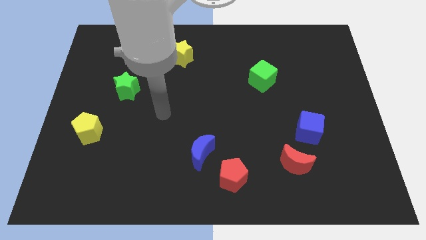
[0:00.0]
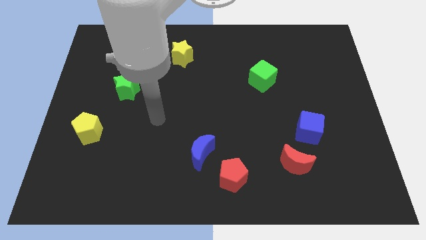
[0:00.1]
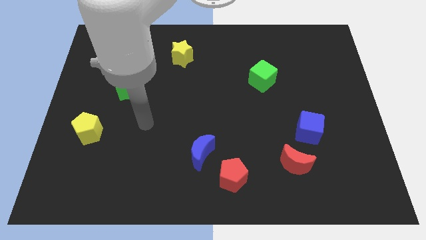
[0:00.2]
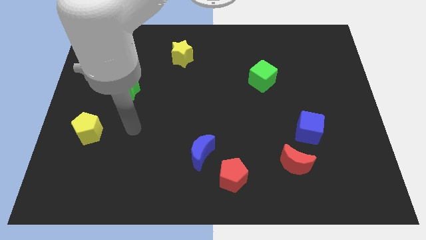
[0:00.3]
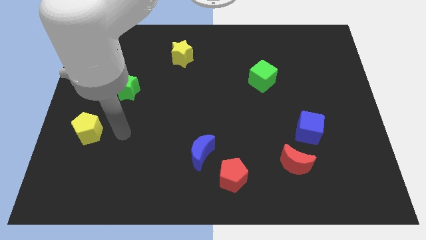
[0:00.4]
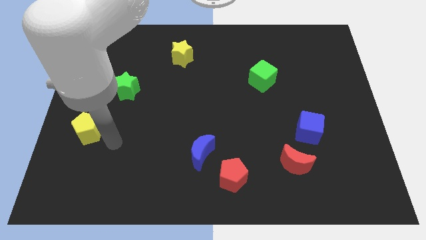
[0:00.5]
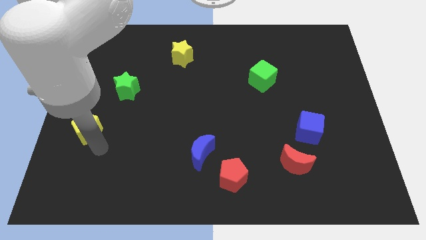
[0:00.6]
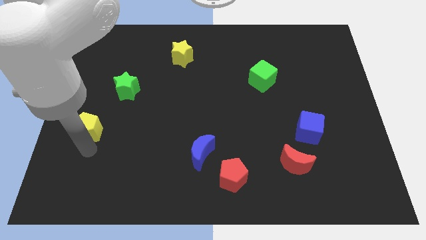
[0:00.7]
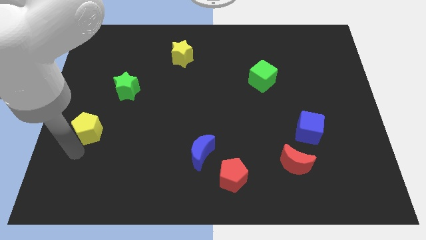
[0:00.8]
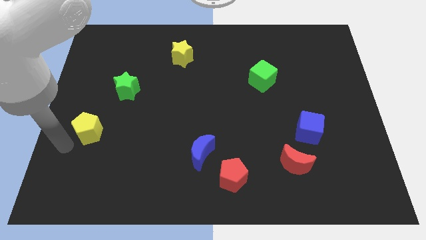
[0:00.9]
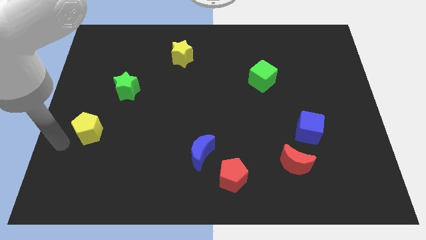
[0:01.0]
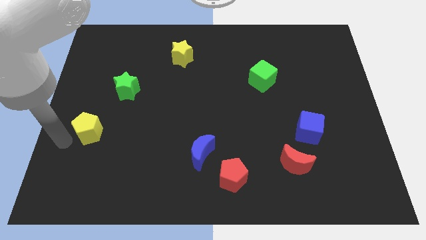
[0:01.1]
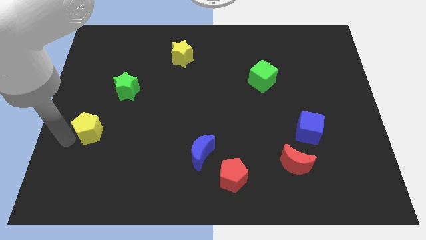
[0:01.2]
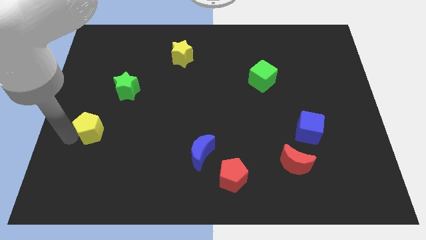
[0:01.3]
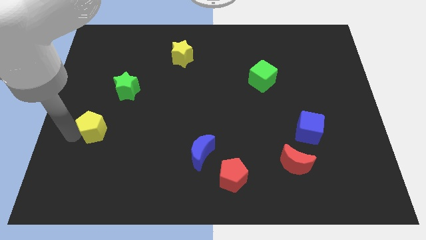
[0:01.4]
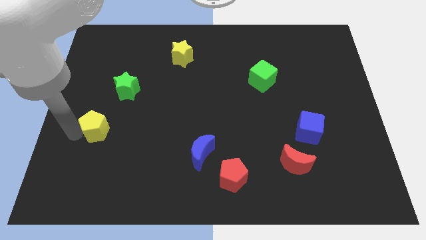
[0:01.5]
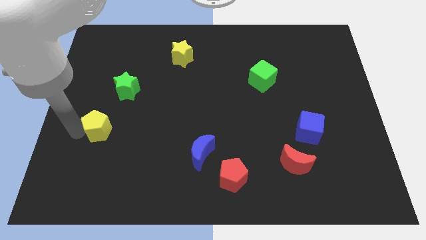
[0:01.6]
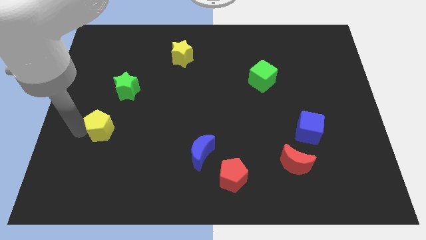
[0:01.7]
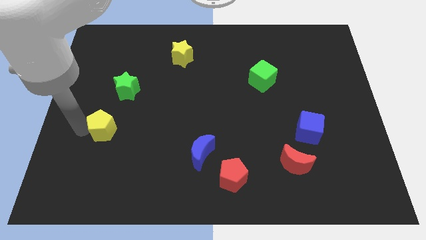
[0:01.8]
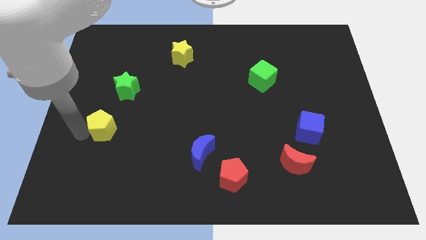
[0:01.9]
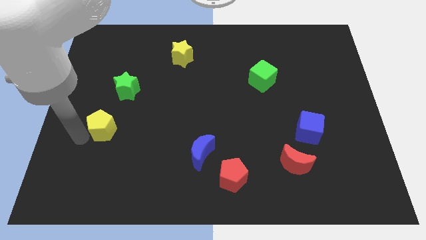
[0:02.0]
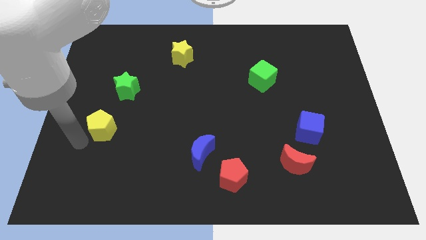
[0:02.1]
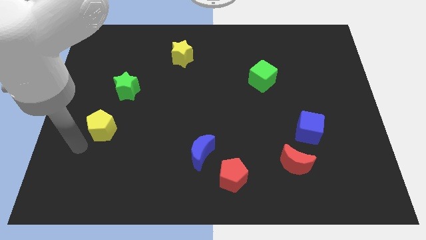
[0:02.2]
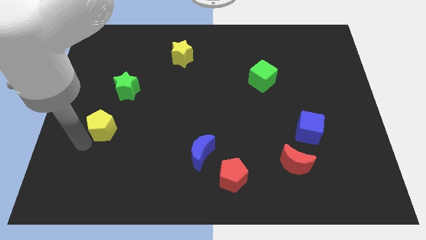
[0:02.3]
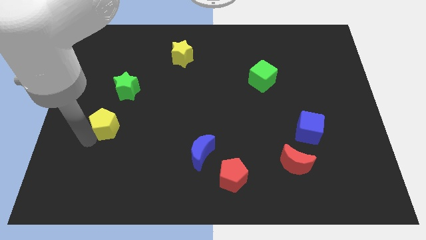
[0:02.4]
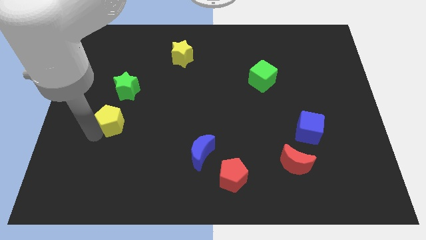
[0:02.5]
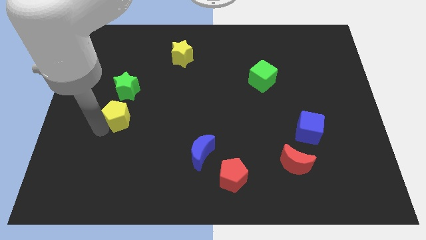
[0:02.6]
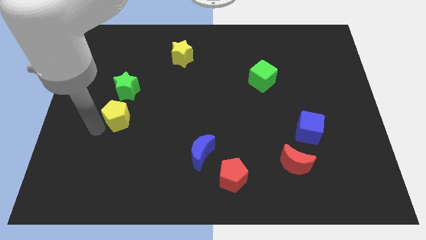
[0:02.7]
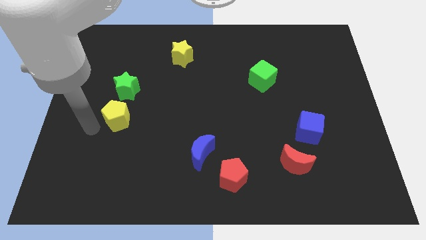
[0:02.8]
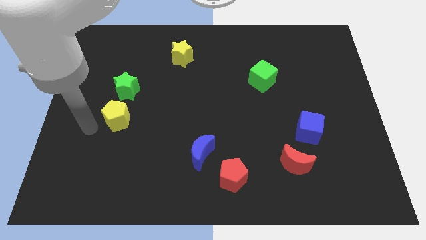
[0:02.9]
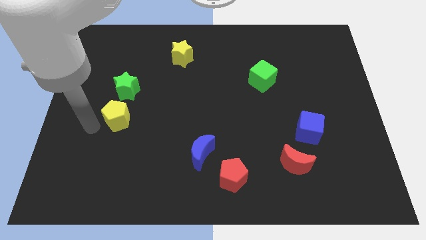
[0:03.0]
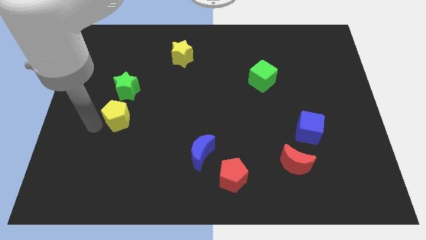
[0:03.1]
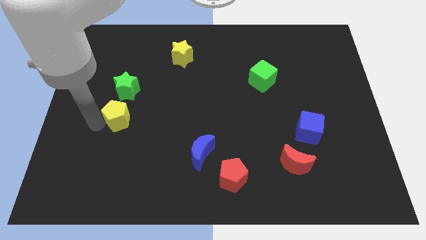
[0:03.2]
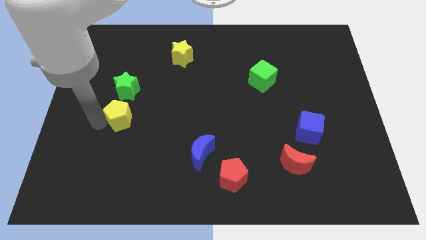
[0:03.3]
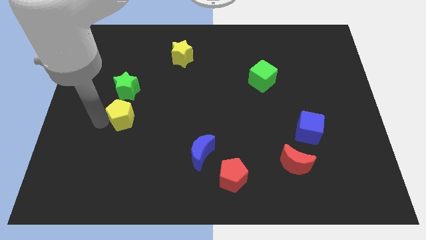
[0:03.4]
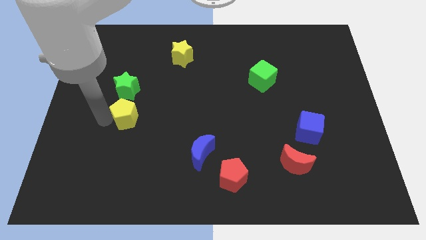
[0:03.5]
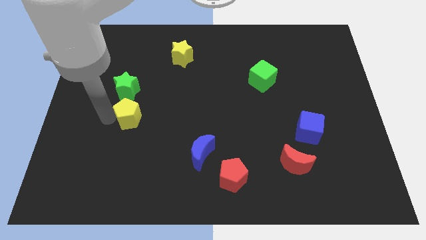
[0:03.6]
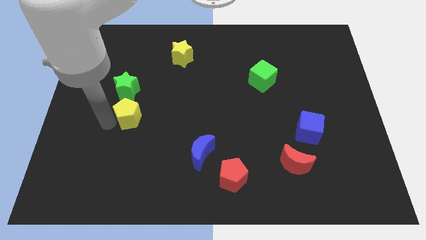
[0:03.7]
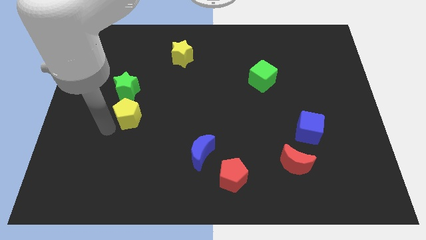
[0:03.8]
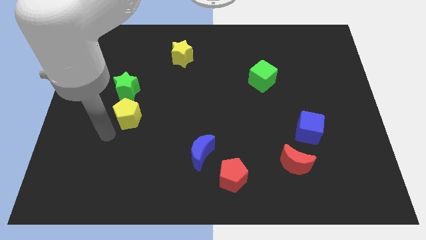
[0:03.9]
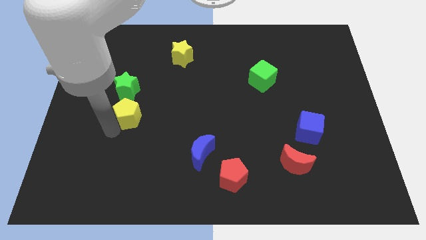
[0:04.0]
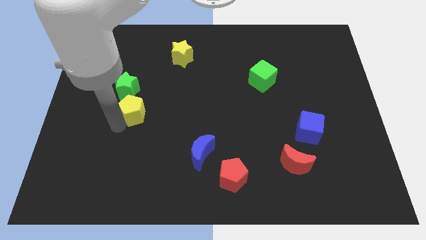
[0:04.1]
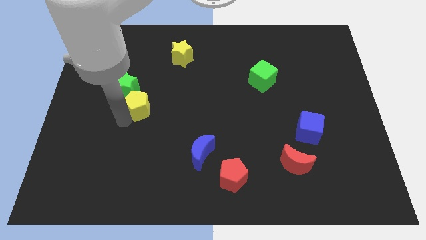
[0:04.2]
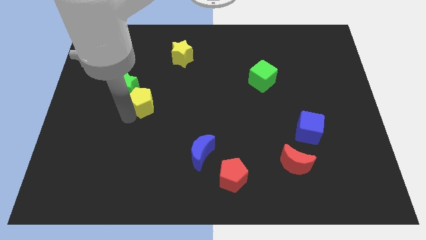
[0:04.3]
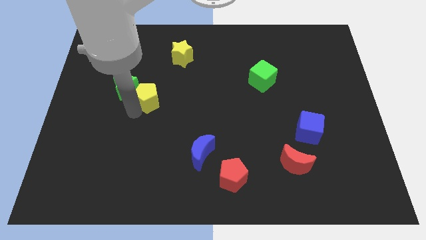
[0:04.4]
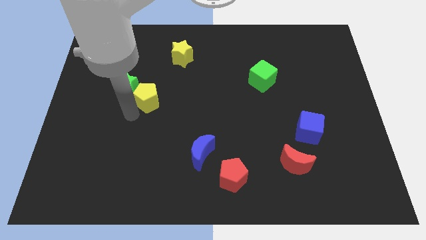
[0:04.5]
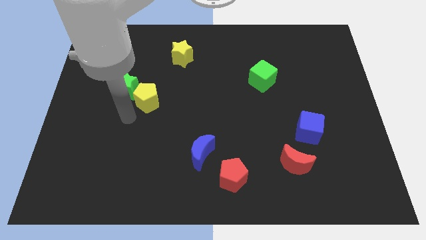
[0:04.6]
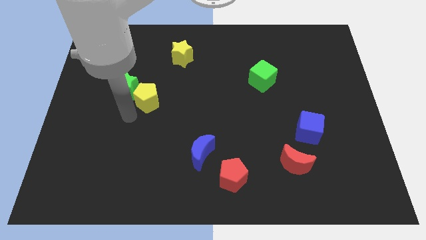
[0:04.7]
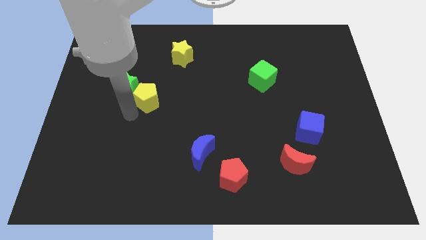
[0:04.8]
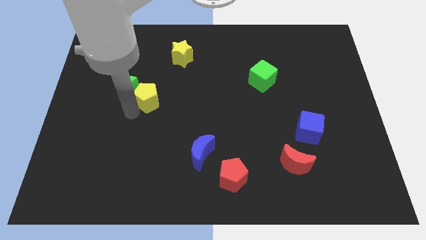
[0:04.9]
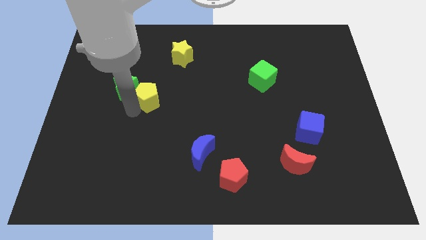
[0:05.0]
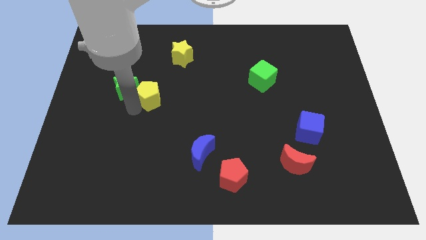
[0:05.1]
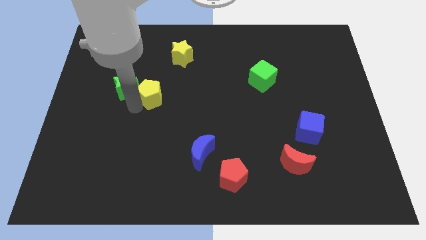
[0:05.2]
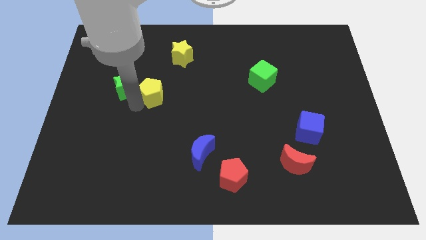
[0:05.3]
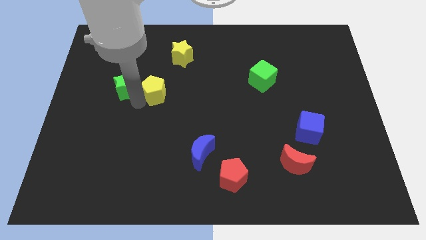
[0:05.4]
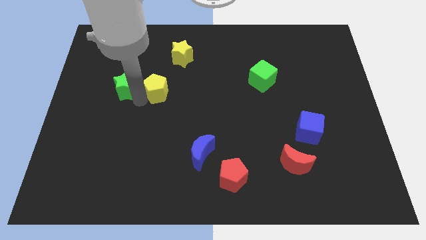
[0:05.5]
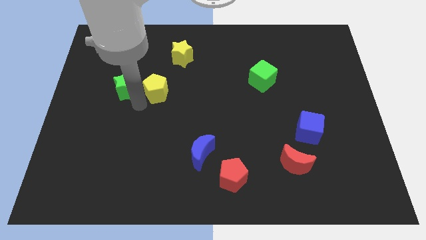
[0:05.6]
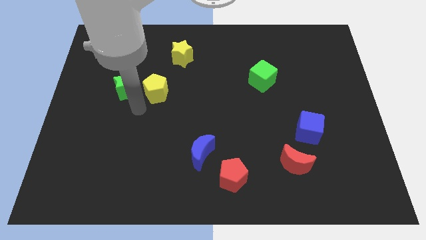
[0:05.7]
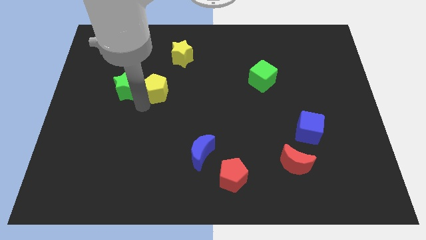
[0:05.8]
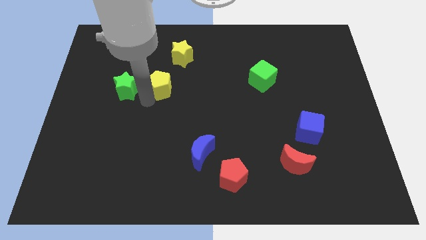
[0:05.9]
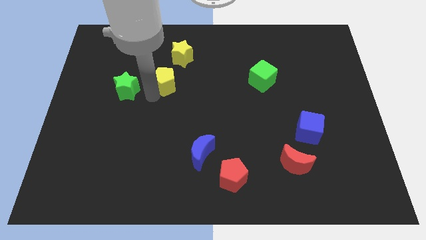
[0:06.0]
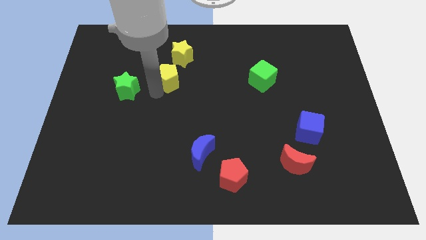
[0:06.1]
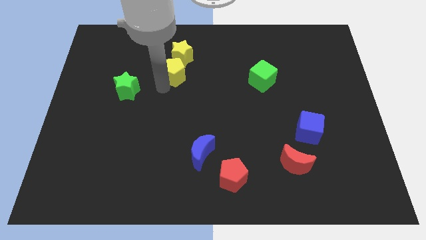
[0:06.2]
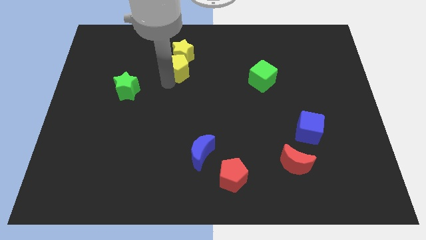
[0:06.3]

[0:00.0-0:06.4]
put the yellow pentagon close to the yellow star
